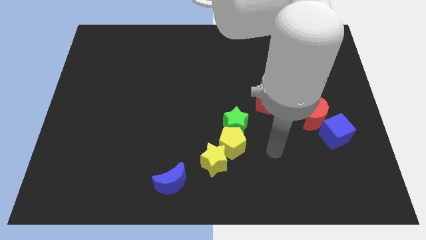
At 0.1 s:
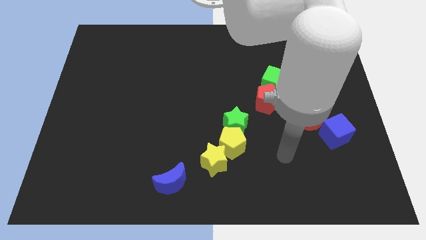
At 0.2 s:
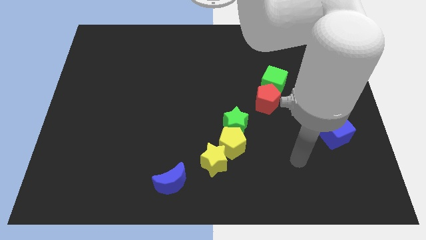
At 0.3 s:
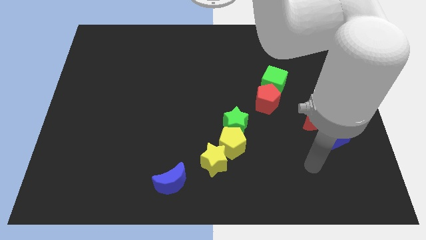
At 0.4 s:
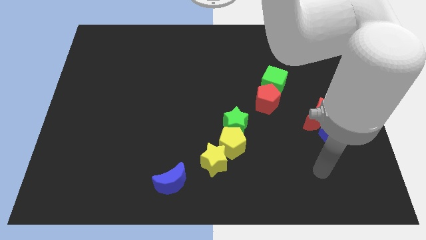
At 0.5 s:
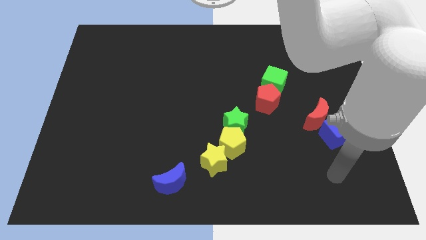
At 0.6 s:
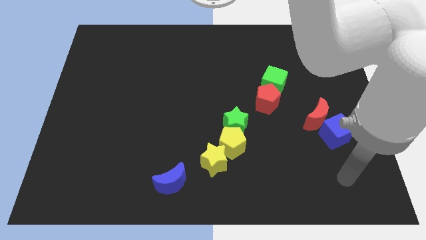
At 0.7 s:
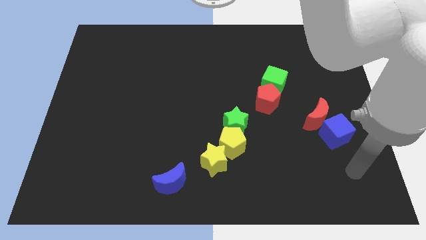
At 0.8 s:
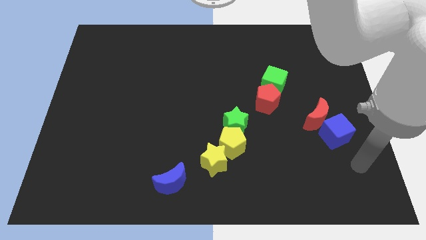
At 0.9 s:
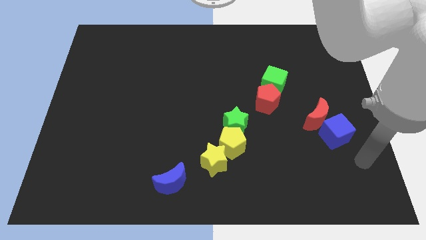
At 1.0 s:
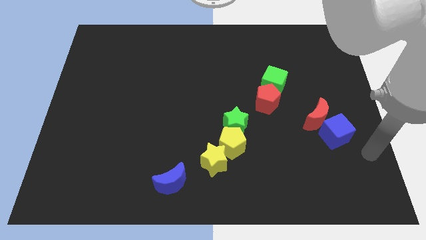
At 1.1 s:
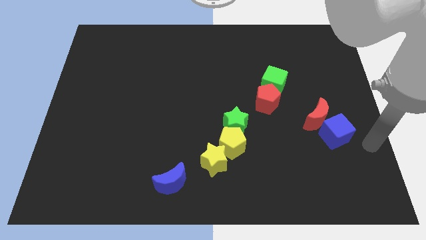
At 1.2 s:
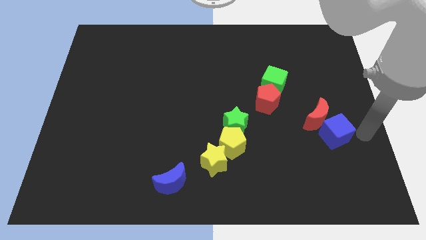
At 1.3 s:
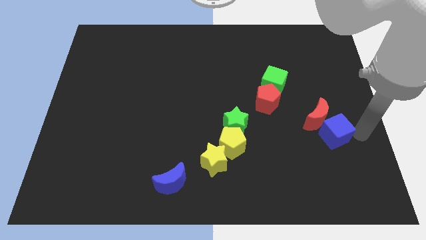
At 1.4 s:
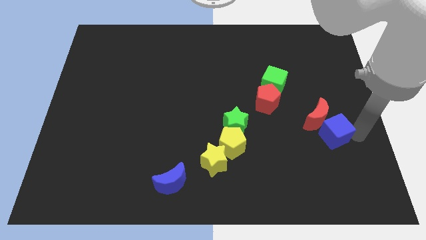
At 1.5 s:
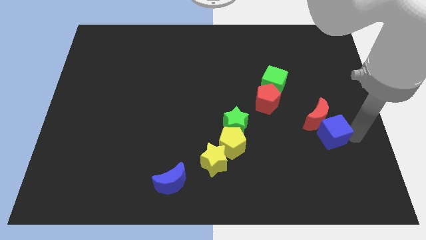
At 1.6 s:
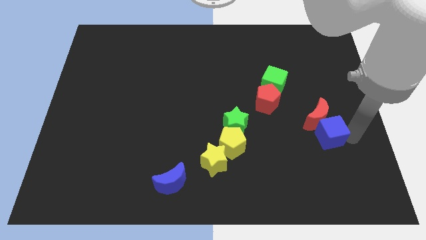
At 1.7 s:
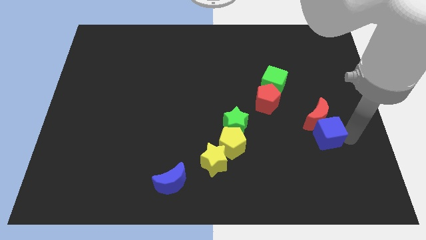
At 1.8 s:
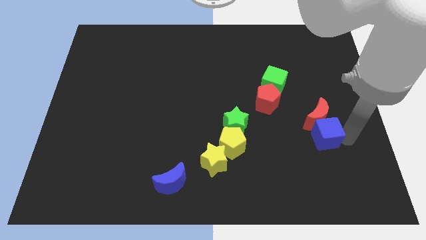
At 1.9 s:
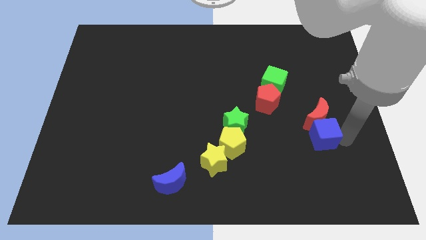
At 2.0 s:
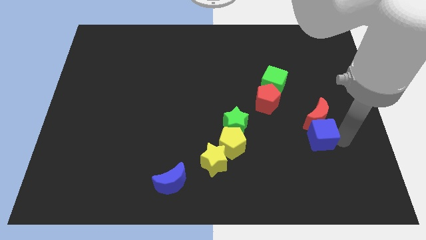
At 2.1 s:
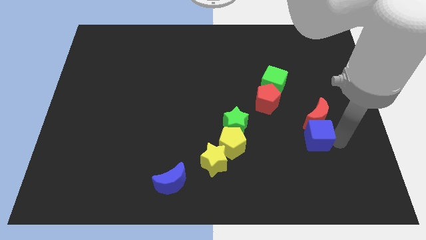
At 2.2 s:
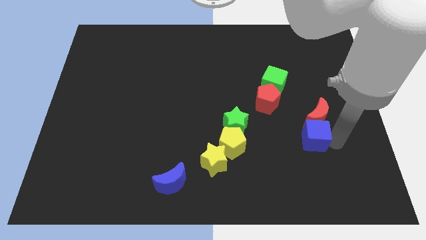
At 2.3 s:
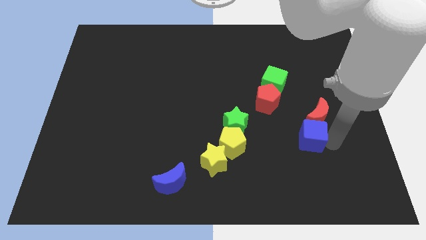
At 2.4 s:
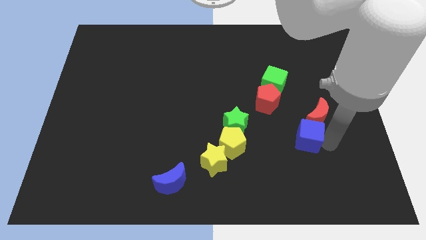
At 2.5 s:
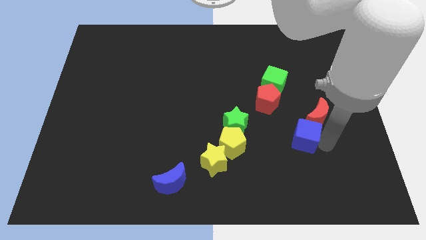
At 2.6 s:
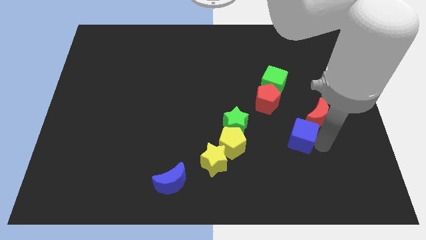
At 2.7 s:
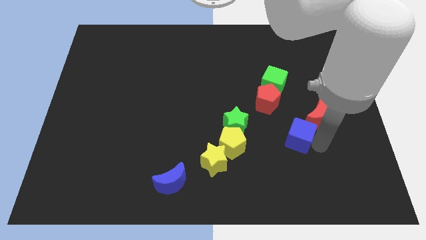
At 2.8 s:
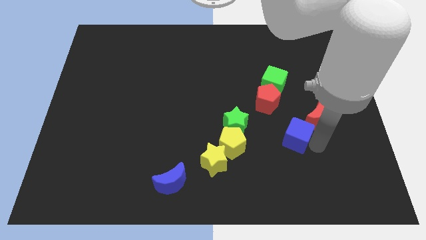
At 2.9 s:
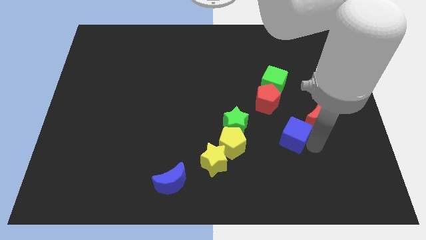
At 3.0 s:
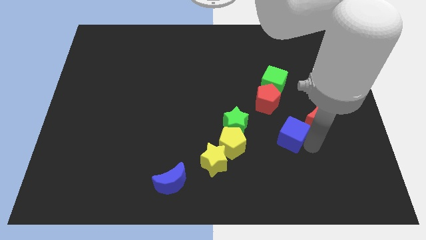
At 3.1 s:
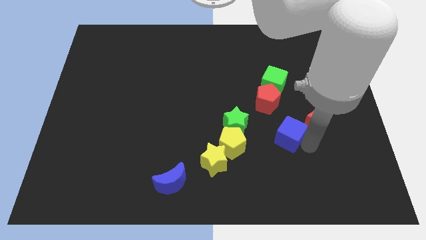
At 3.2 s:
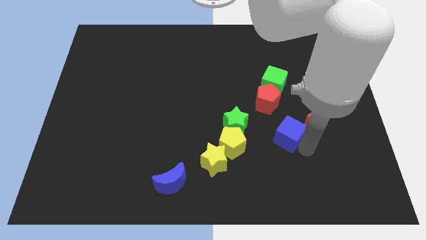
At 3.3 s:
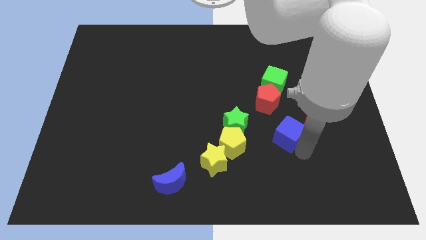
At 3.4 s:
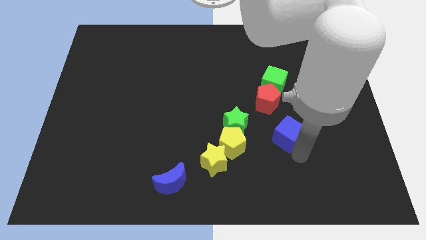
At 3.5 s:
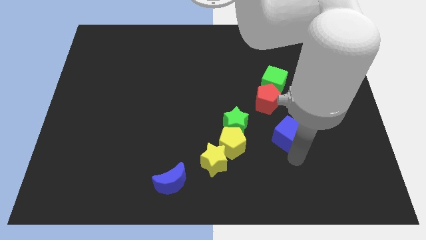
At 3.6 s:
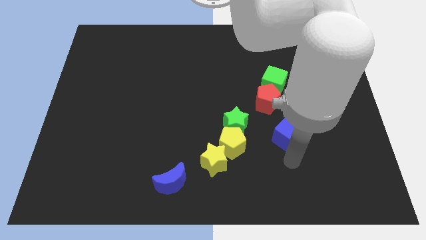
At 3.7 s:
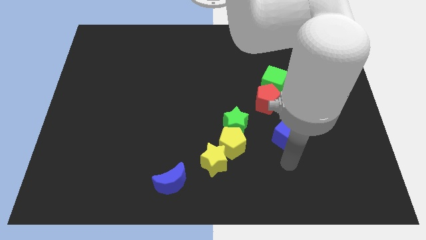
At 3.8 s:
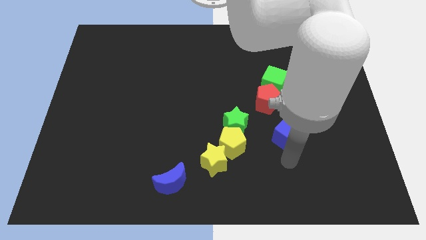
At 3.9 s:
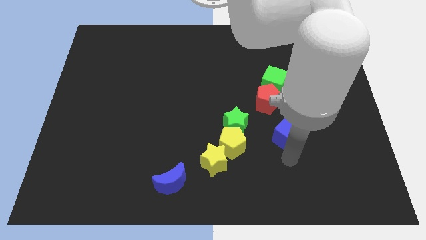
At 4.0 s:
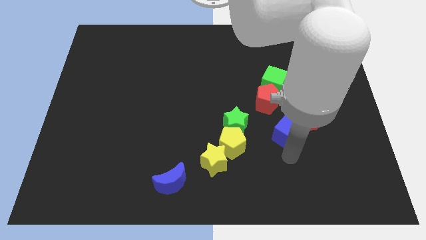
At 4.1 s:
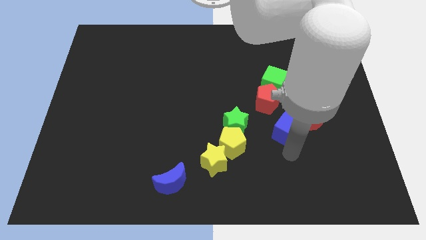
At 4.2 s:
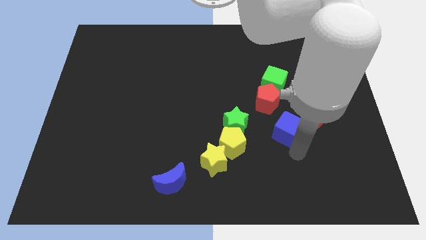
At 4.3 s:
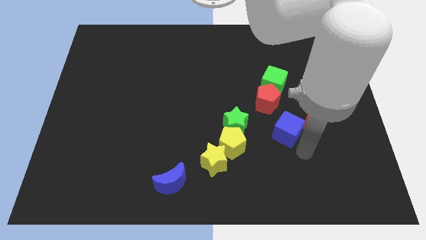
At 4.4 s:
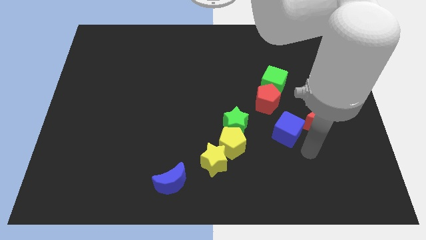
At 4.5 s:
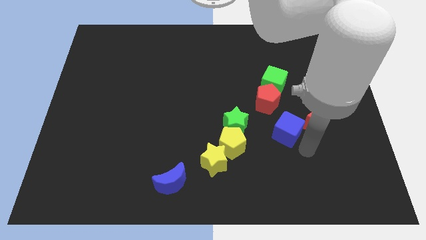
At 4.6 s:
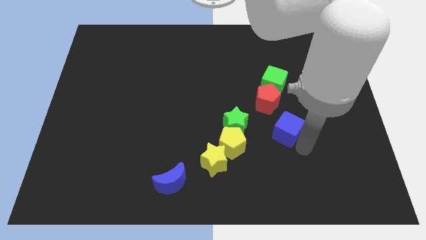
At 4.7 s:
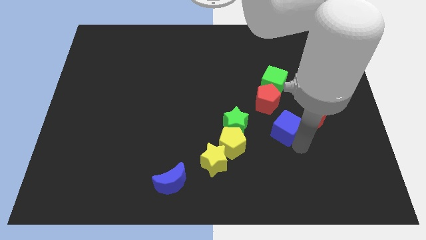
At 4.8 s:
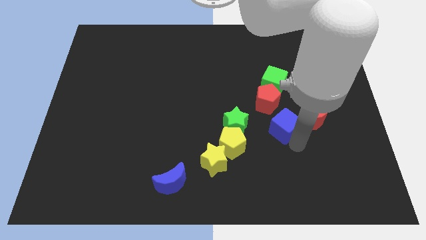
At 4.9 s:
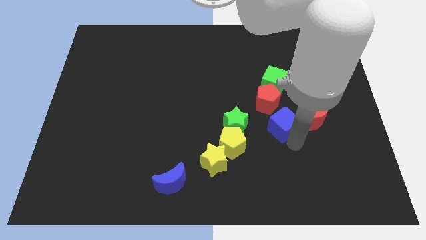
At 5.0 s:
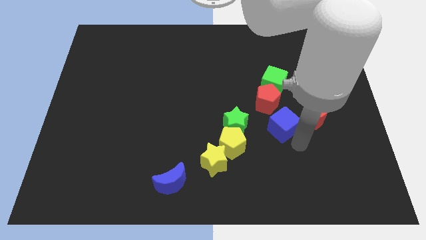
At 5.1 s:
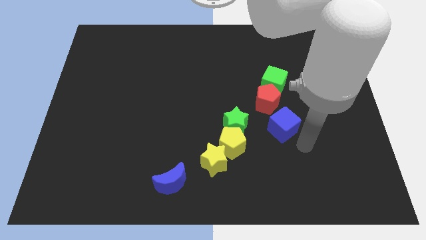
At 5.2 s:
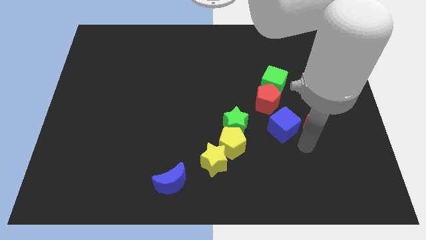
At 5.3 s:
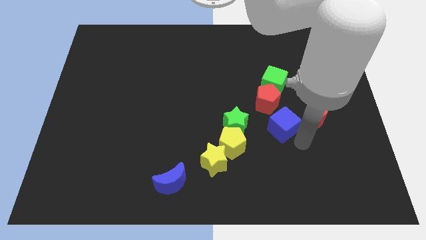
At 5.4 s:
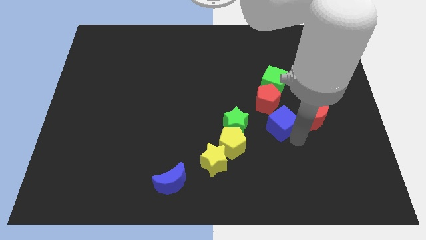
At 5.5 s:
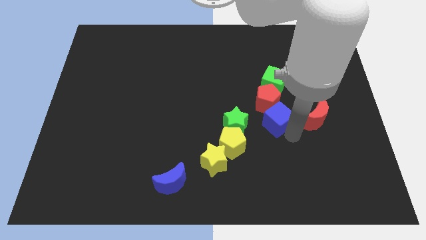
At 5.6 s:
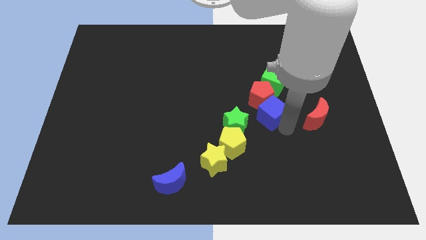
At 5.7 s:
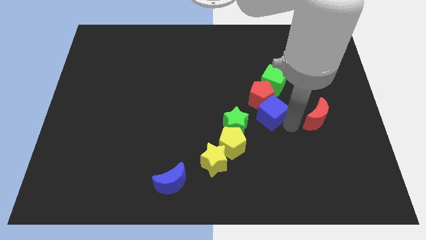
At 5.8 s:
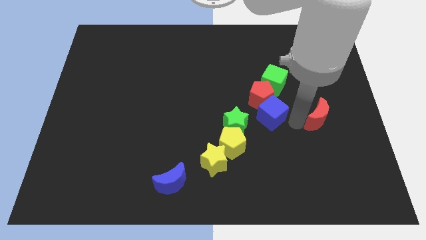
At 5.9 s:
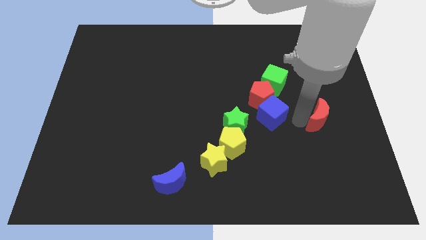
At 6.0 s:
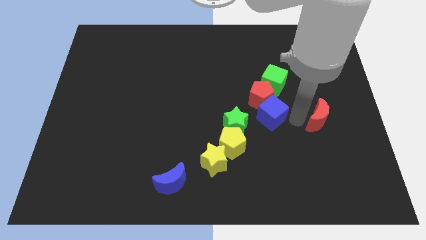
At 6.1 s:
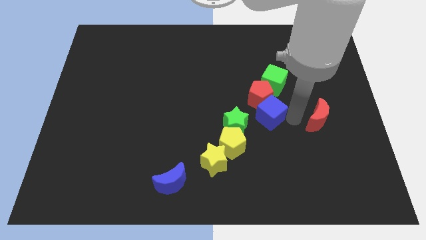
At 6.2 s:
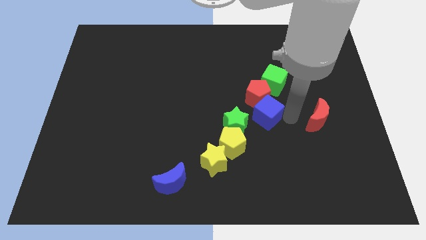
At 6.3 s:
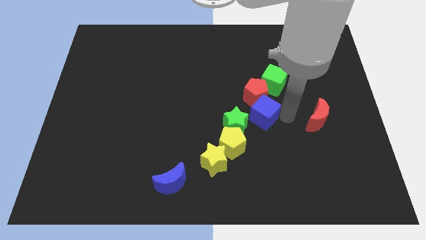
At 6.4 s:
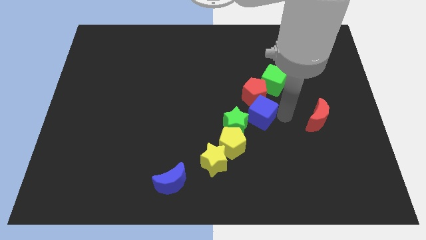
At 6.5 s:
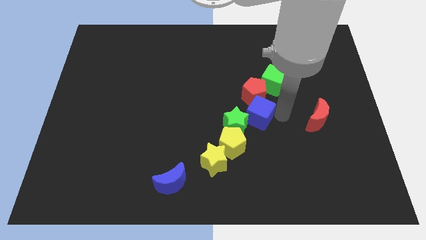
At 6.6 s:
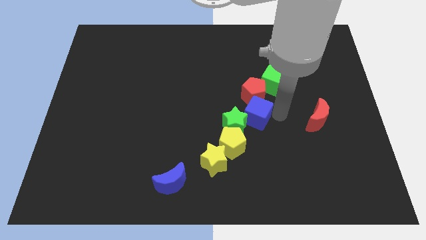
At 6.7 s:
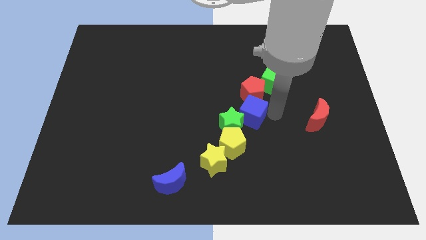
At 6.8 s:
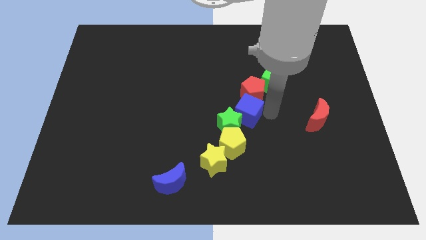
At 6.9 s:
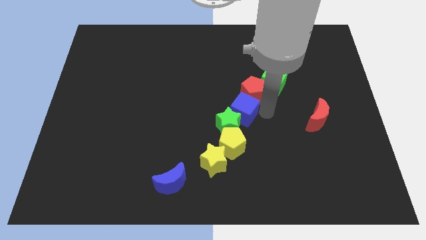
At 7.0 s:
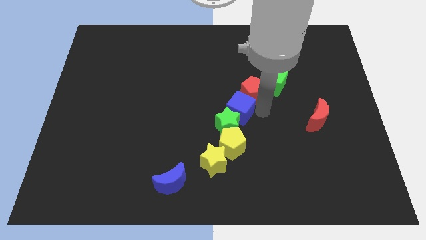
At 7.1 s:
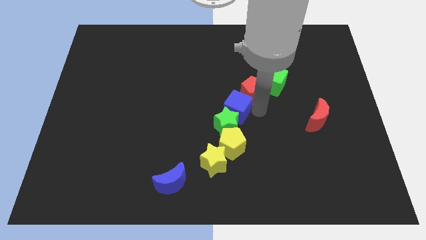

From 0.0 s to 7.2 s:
slide the blue cube left

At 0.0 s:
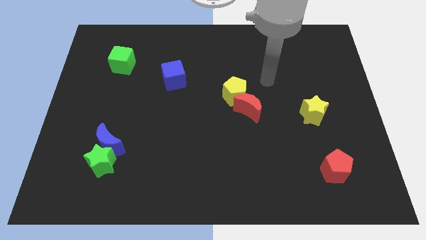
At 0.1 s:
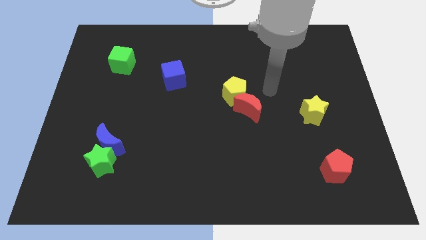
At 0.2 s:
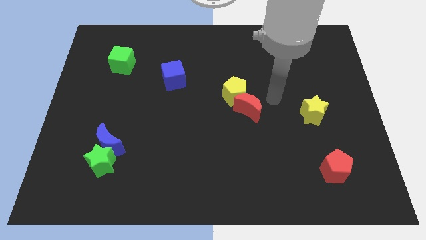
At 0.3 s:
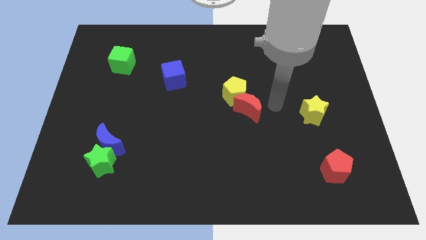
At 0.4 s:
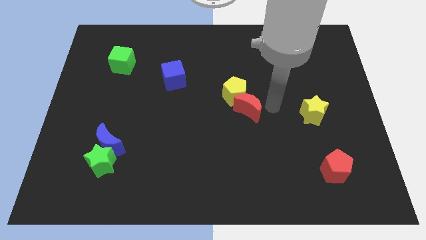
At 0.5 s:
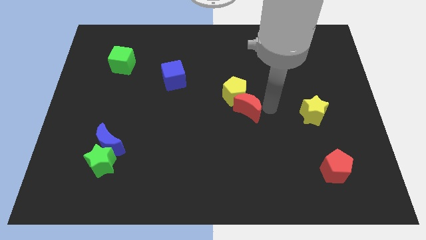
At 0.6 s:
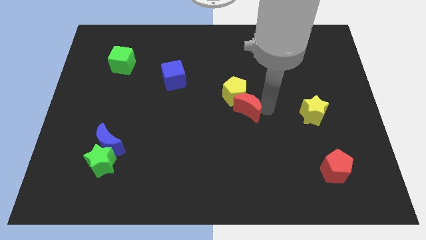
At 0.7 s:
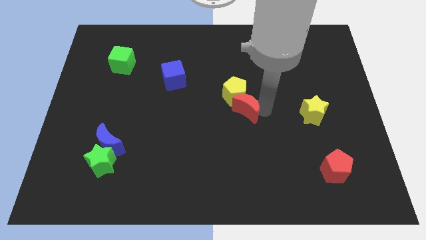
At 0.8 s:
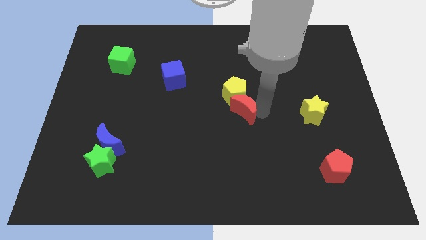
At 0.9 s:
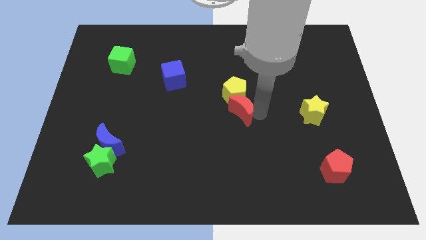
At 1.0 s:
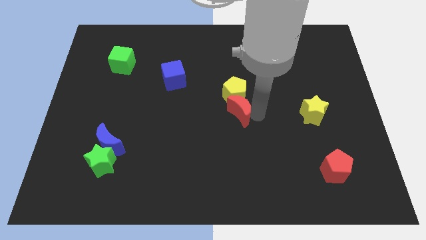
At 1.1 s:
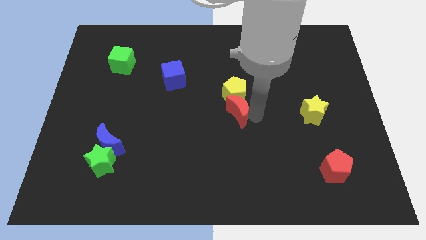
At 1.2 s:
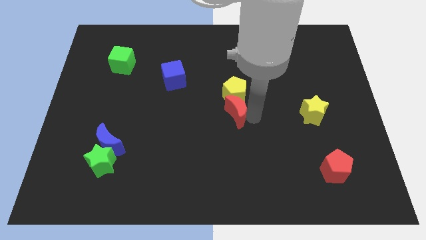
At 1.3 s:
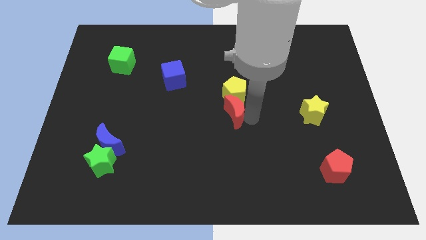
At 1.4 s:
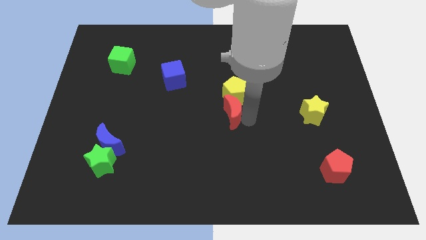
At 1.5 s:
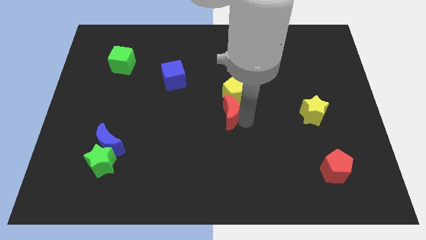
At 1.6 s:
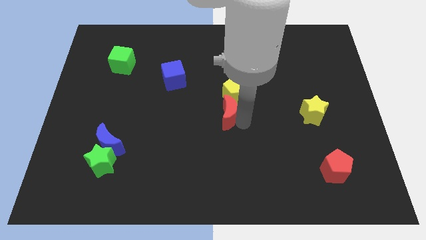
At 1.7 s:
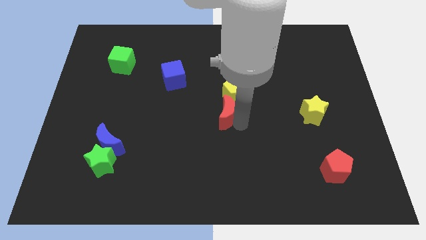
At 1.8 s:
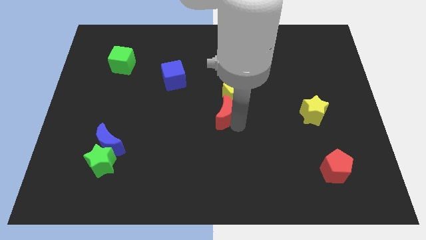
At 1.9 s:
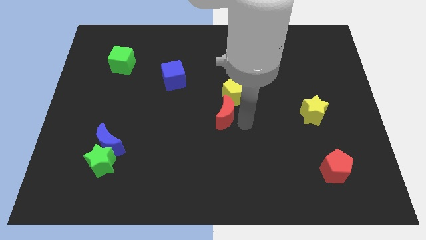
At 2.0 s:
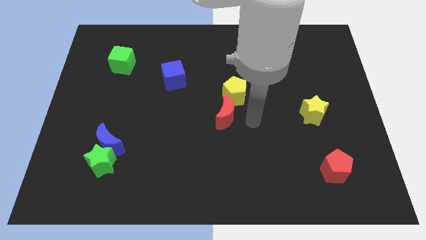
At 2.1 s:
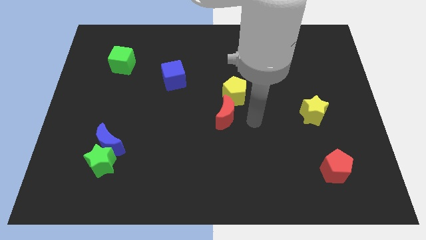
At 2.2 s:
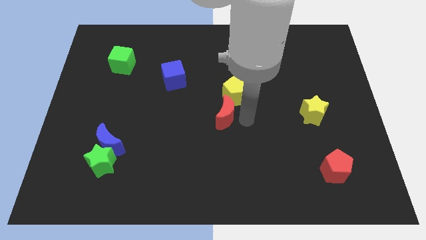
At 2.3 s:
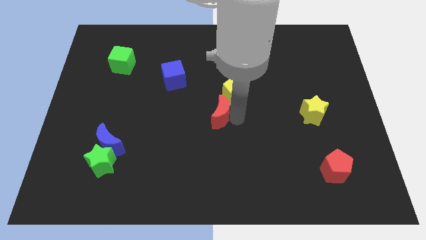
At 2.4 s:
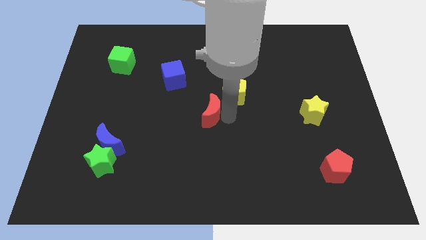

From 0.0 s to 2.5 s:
slide the red moon left slightly
